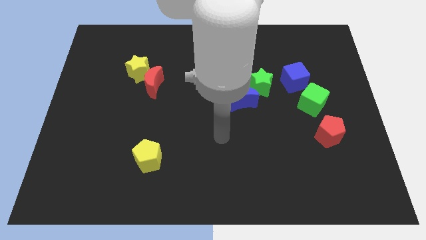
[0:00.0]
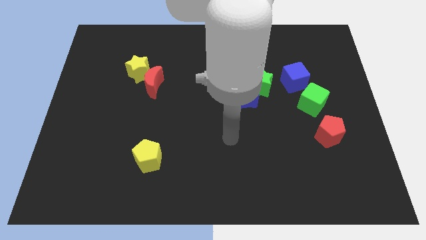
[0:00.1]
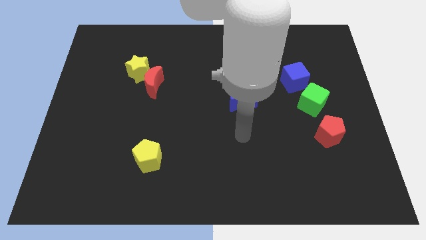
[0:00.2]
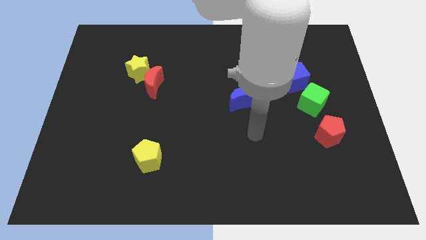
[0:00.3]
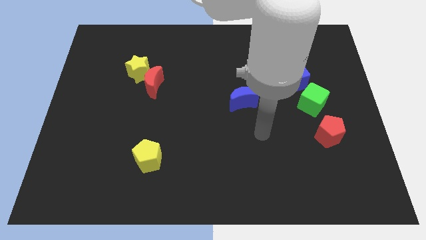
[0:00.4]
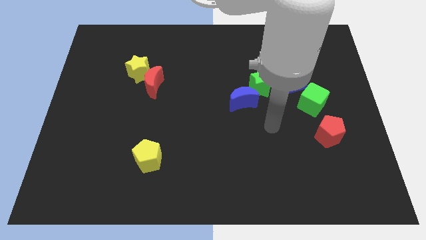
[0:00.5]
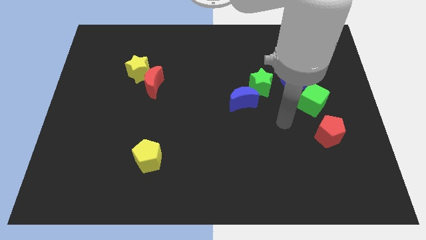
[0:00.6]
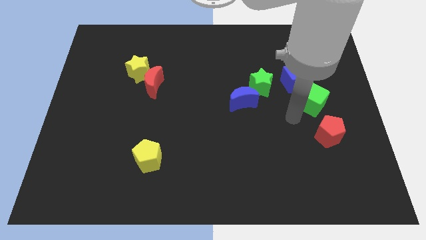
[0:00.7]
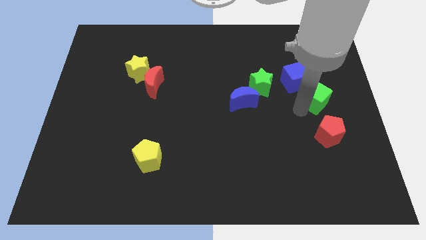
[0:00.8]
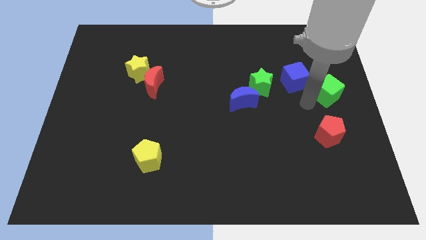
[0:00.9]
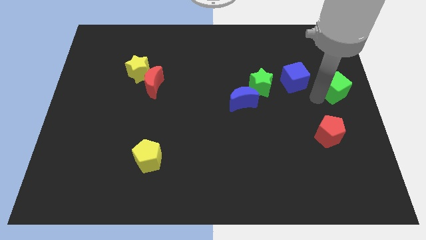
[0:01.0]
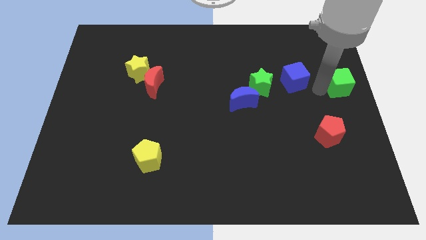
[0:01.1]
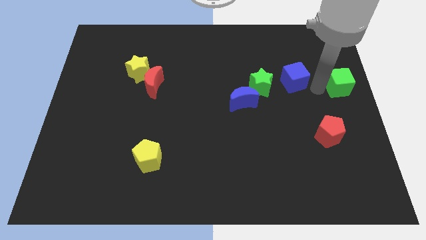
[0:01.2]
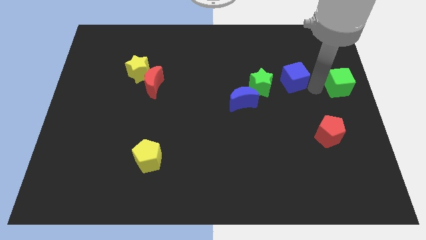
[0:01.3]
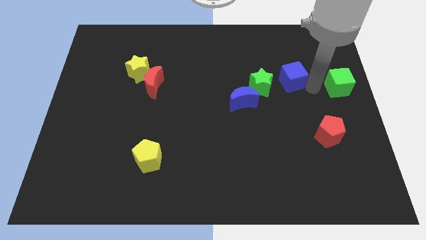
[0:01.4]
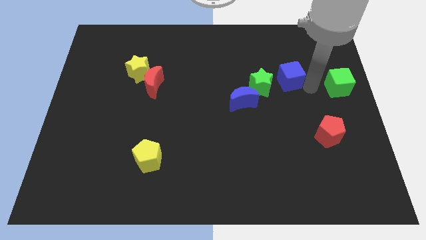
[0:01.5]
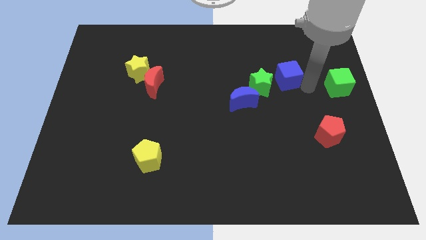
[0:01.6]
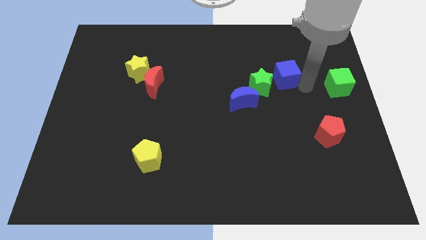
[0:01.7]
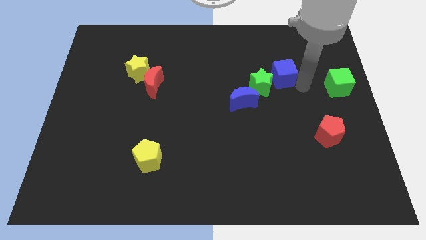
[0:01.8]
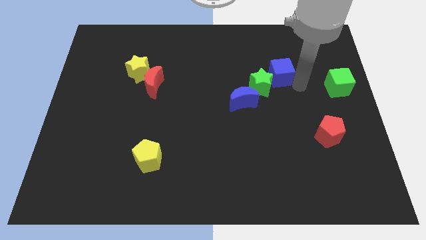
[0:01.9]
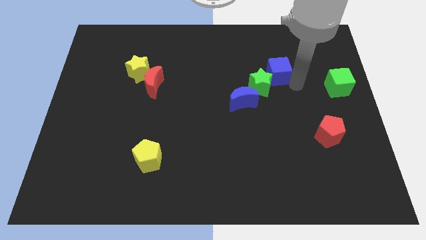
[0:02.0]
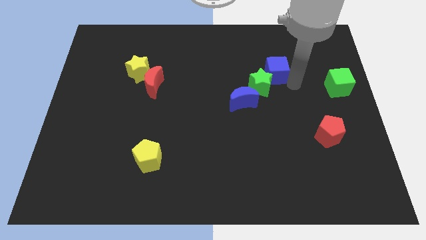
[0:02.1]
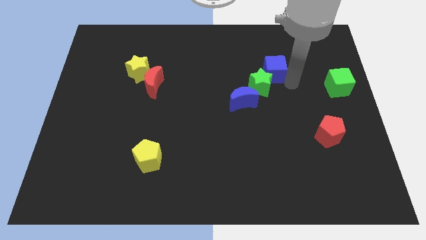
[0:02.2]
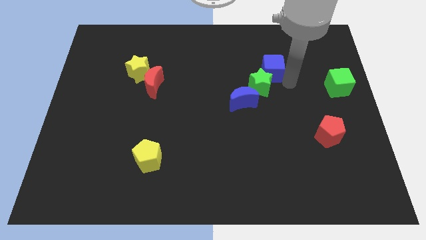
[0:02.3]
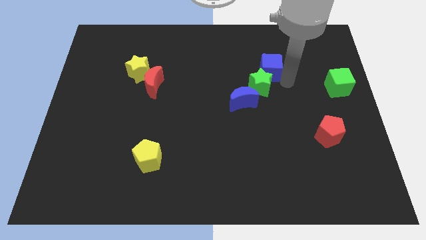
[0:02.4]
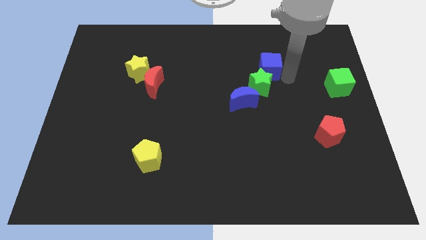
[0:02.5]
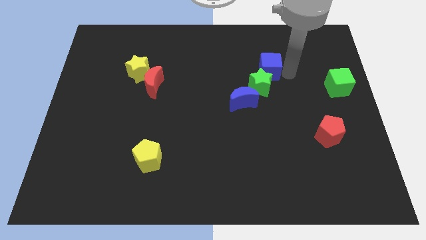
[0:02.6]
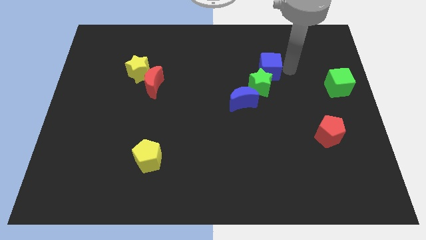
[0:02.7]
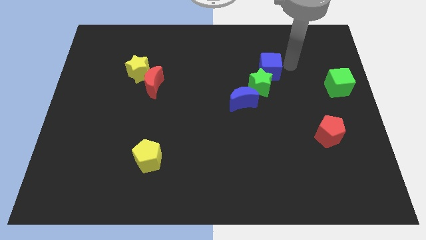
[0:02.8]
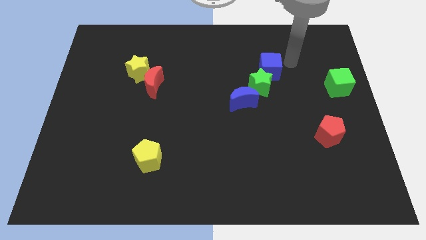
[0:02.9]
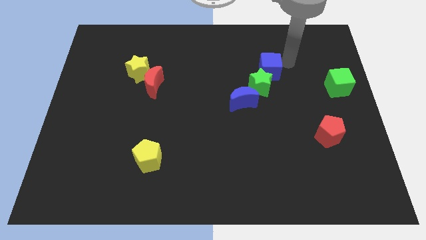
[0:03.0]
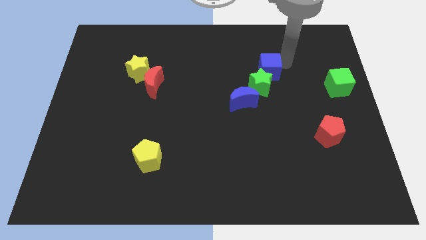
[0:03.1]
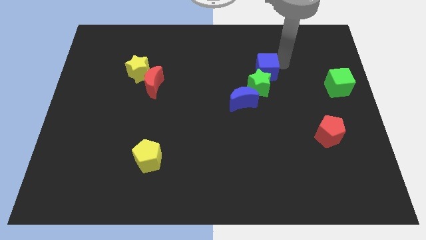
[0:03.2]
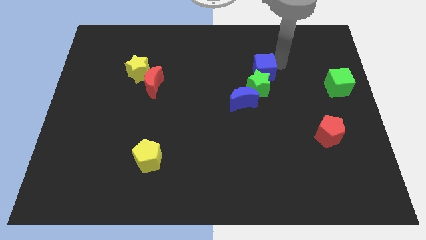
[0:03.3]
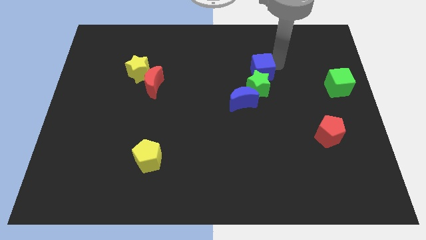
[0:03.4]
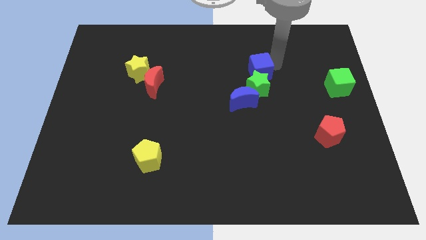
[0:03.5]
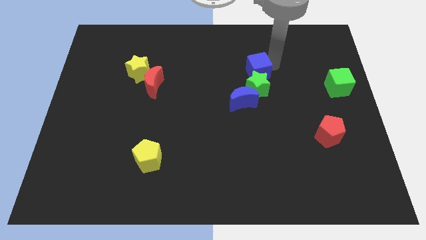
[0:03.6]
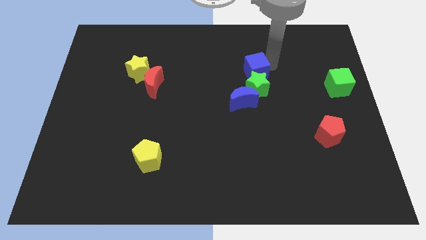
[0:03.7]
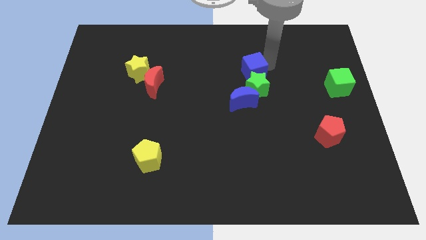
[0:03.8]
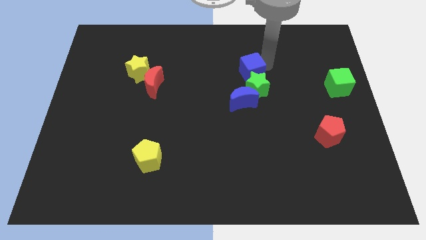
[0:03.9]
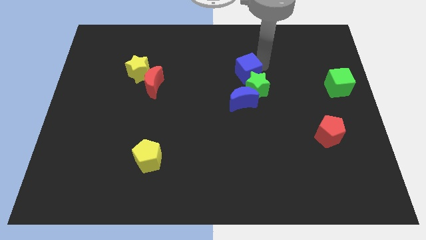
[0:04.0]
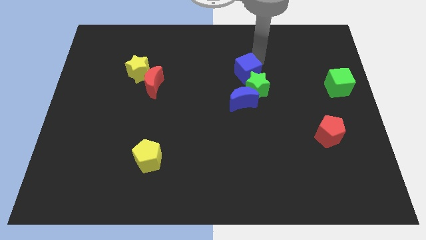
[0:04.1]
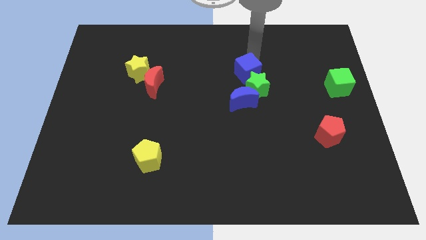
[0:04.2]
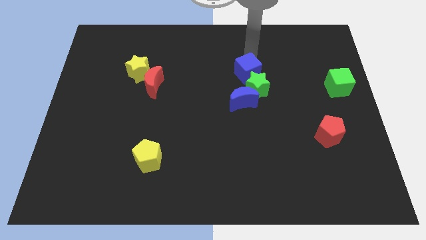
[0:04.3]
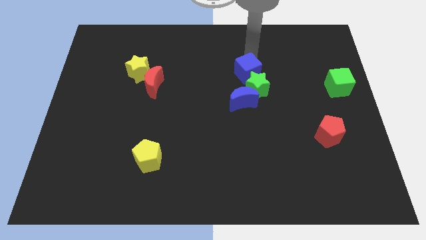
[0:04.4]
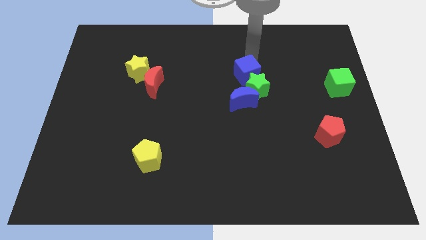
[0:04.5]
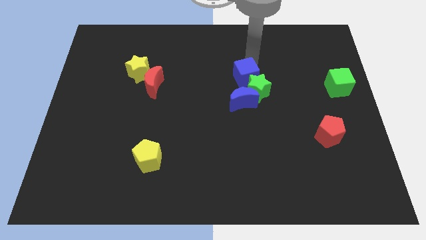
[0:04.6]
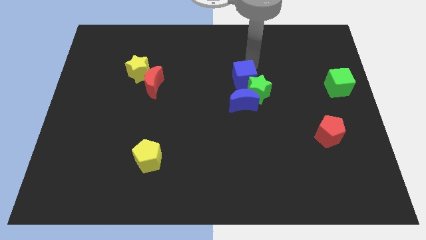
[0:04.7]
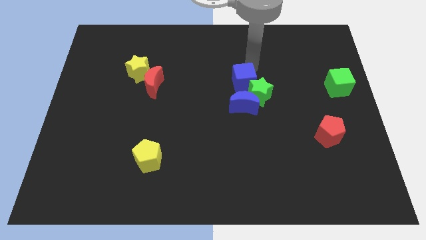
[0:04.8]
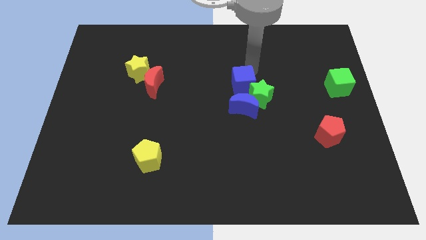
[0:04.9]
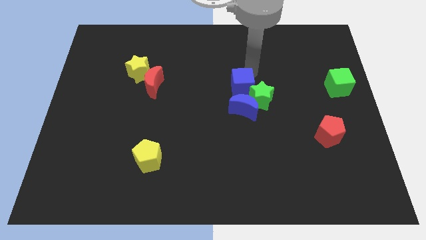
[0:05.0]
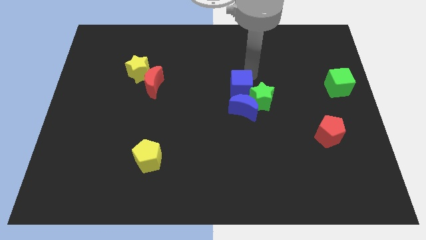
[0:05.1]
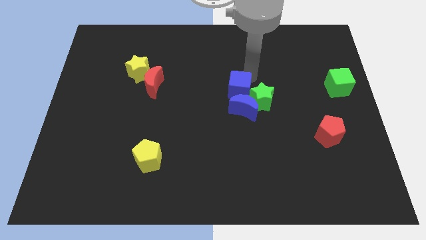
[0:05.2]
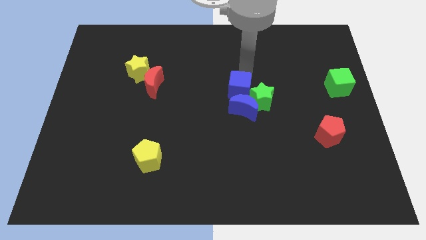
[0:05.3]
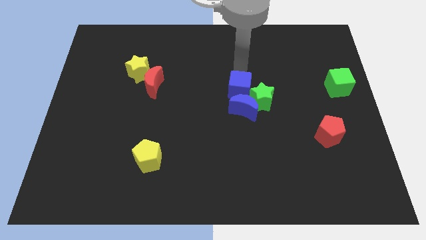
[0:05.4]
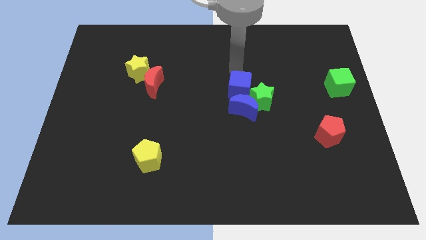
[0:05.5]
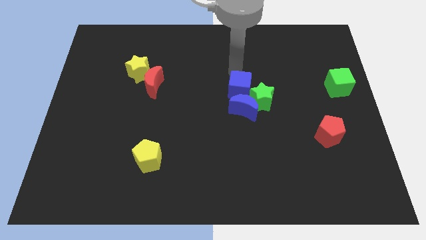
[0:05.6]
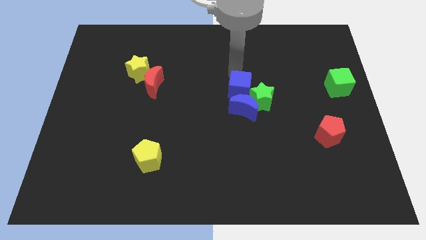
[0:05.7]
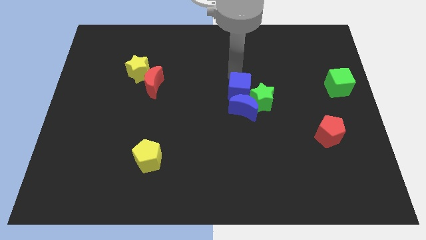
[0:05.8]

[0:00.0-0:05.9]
push the blue cube close to the blue moon

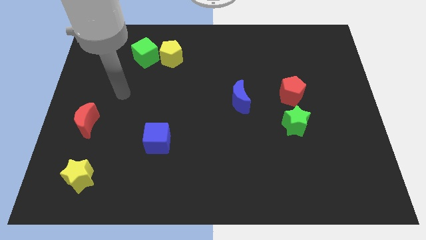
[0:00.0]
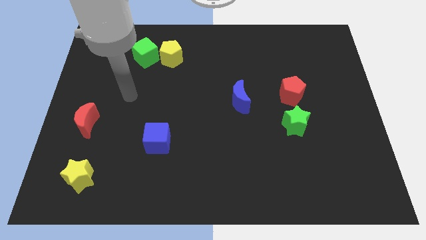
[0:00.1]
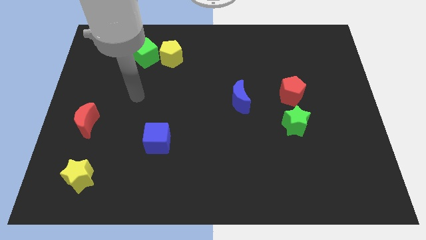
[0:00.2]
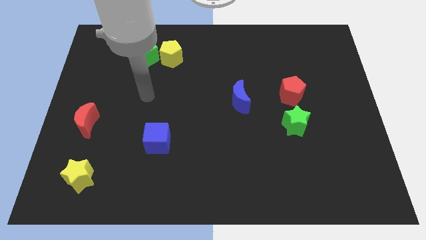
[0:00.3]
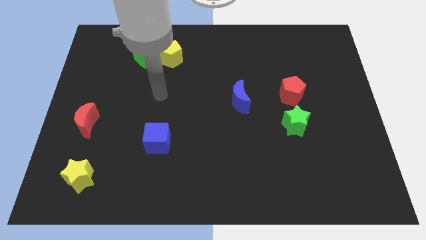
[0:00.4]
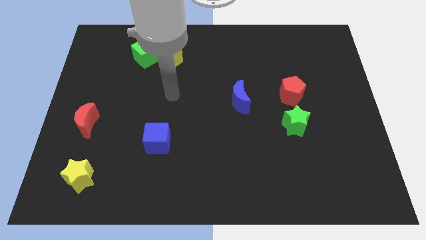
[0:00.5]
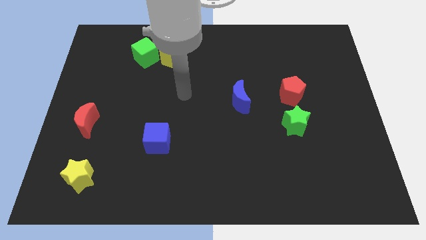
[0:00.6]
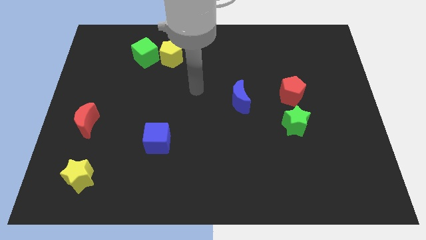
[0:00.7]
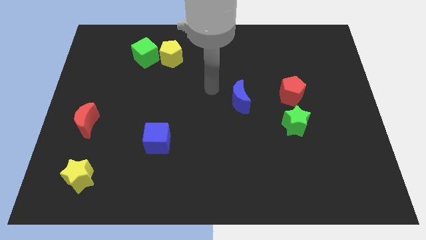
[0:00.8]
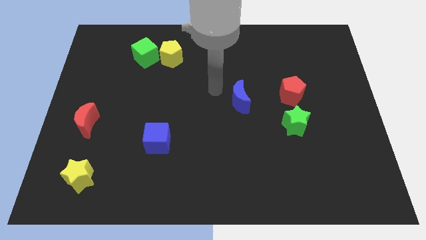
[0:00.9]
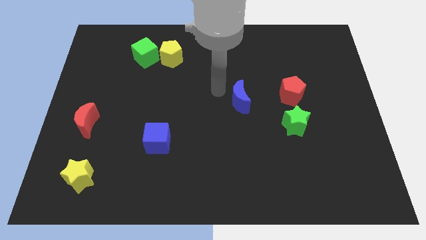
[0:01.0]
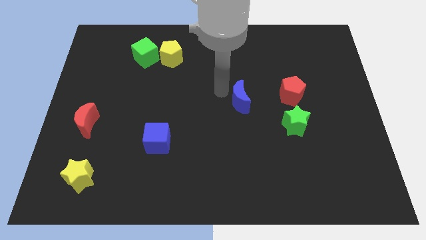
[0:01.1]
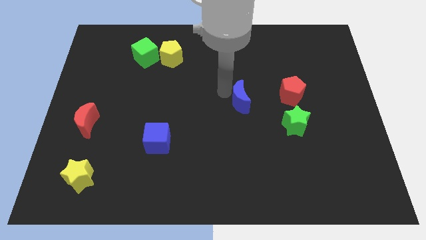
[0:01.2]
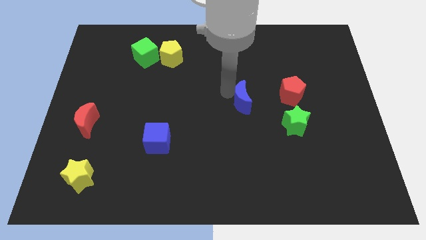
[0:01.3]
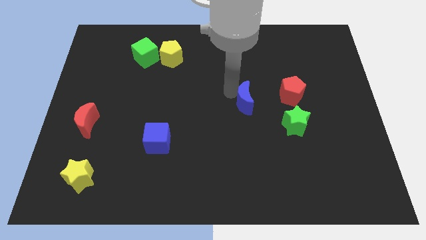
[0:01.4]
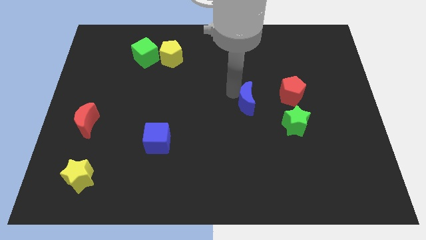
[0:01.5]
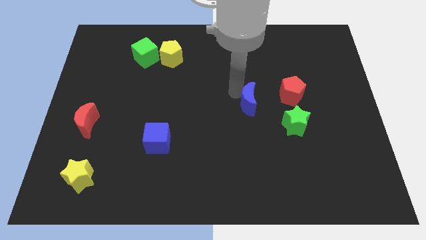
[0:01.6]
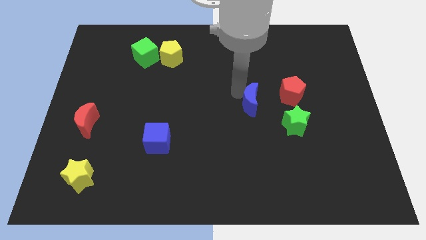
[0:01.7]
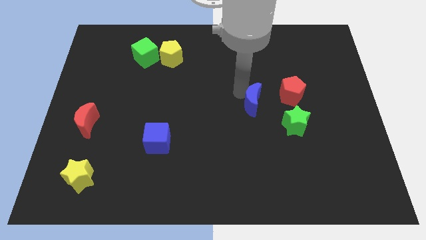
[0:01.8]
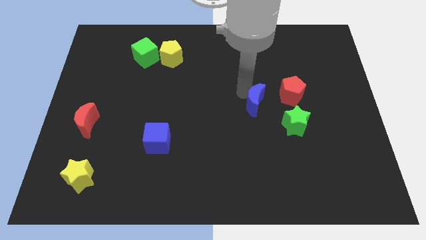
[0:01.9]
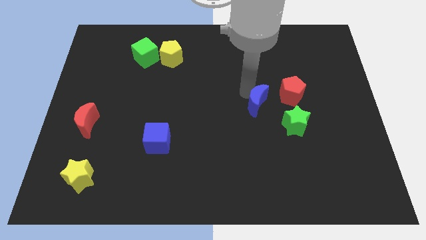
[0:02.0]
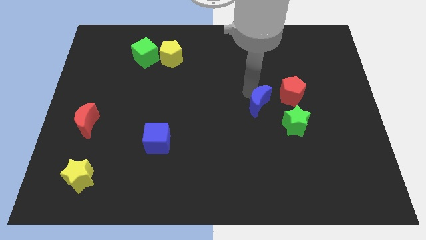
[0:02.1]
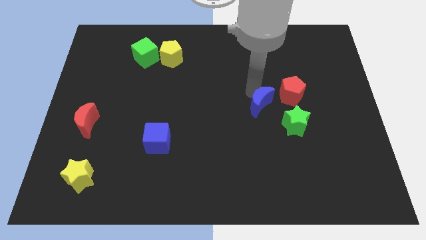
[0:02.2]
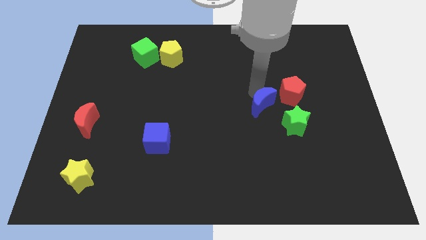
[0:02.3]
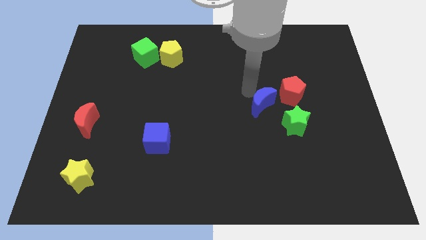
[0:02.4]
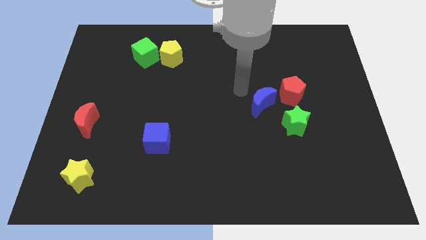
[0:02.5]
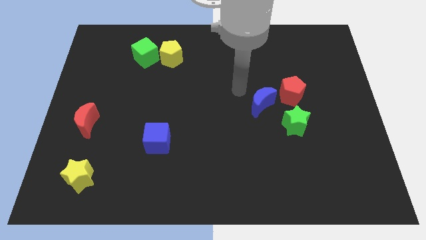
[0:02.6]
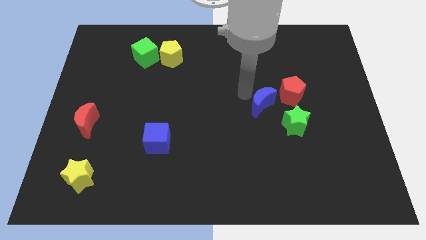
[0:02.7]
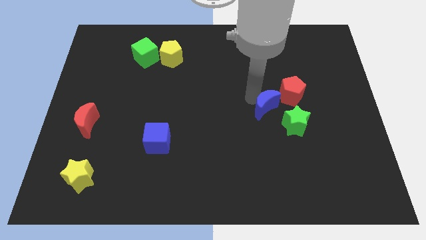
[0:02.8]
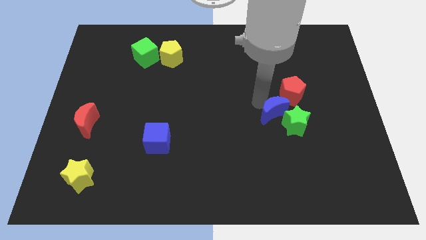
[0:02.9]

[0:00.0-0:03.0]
slide the blue moon close to the green star
